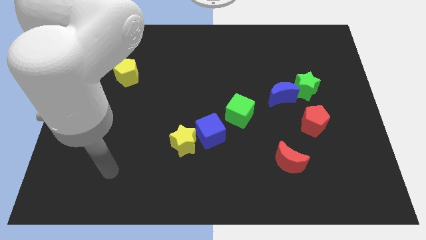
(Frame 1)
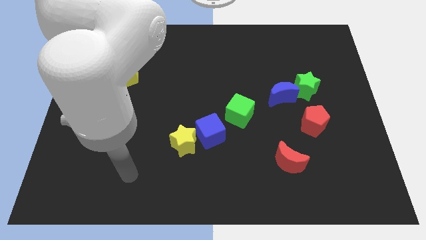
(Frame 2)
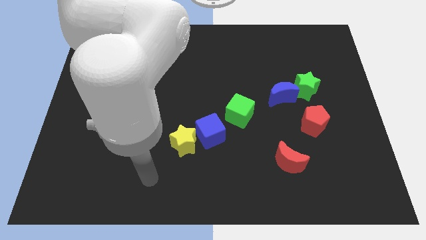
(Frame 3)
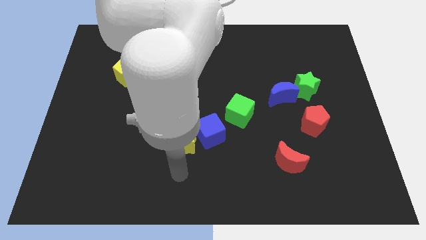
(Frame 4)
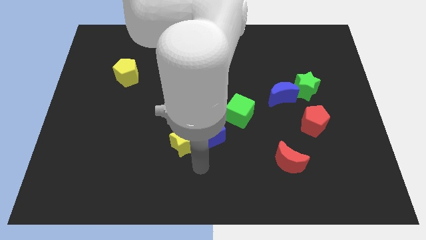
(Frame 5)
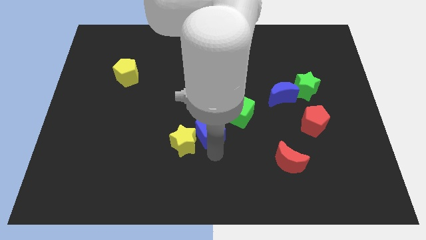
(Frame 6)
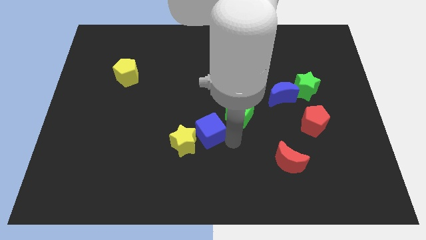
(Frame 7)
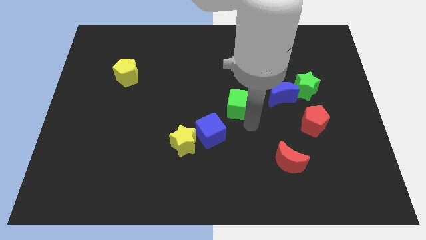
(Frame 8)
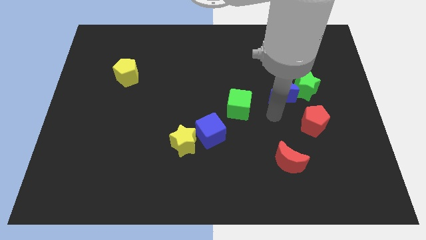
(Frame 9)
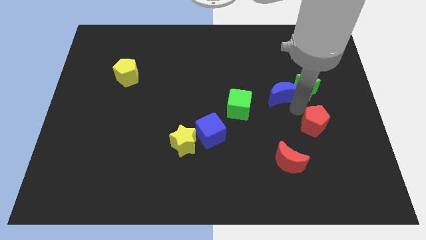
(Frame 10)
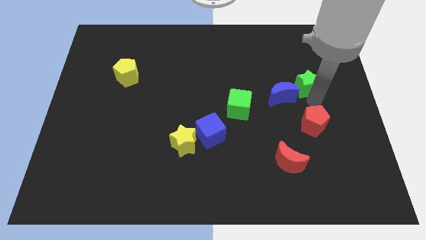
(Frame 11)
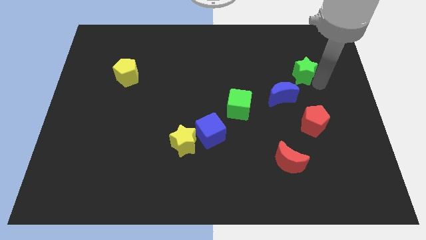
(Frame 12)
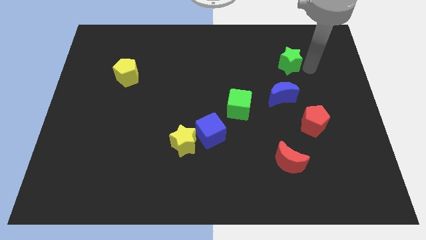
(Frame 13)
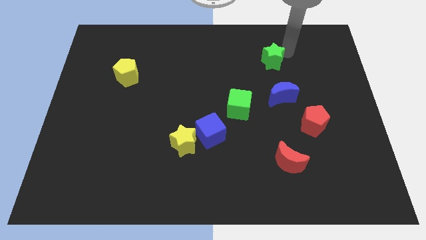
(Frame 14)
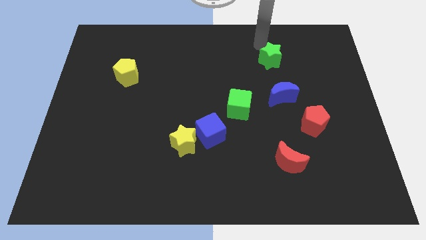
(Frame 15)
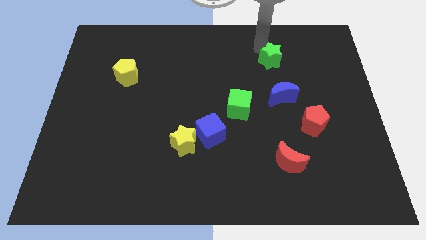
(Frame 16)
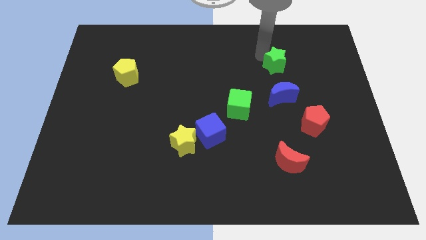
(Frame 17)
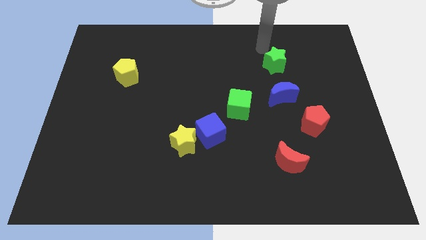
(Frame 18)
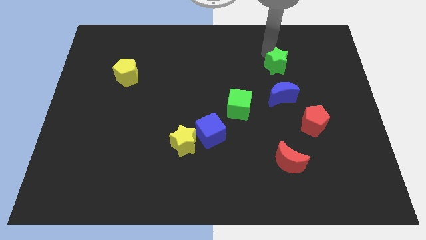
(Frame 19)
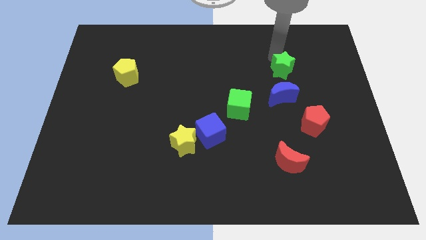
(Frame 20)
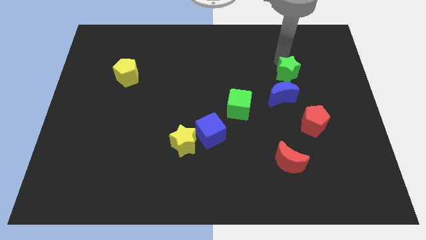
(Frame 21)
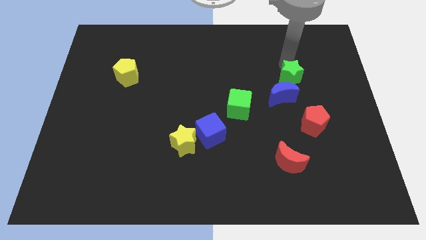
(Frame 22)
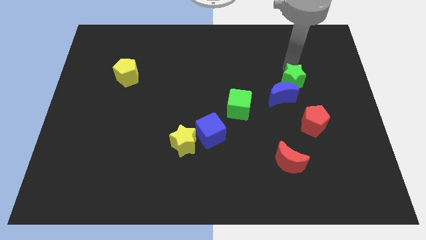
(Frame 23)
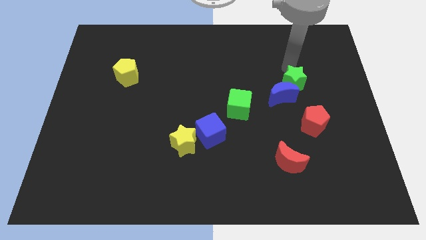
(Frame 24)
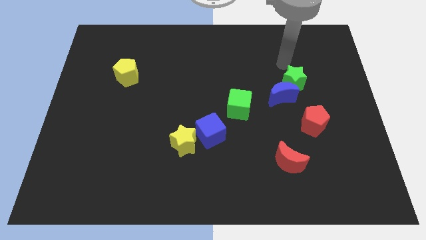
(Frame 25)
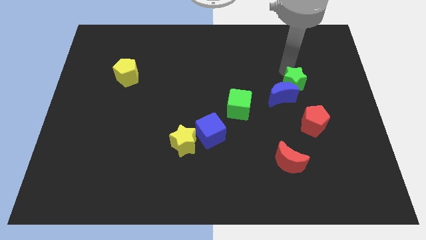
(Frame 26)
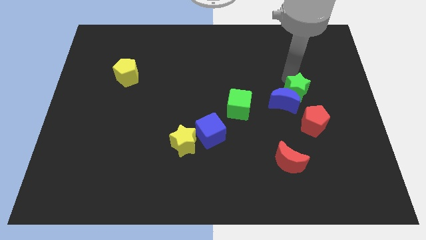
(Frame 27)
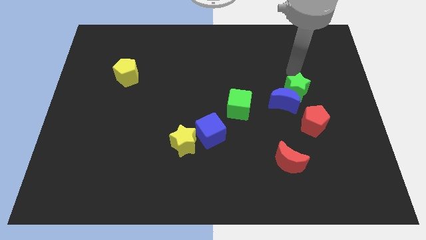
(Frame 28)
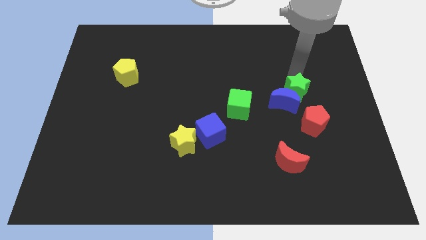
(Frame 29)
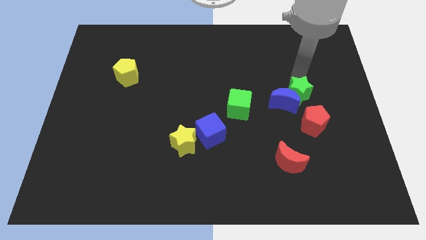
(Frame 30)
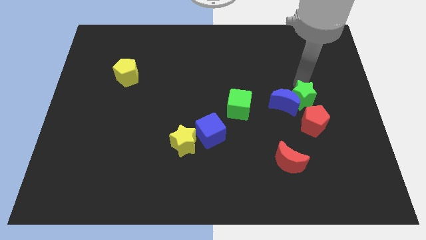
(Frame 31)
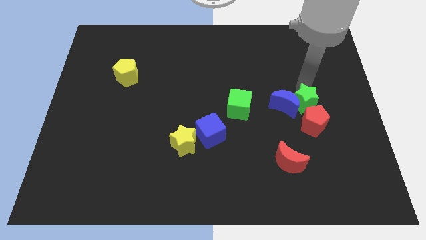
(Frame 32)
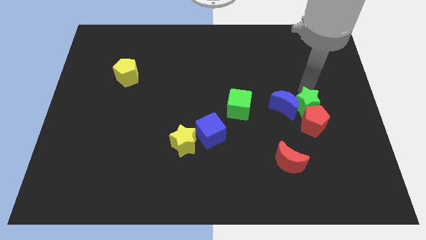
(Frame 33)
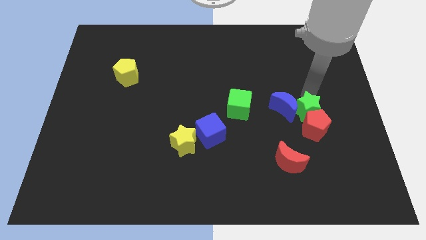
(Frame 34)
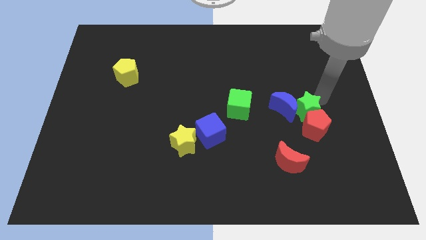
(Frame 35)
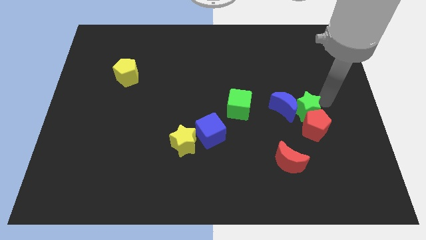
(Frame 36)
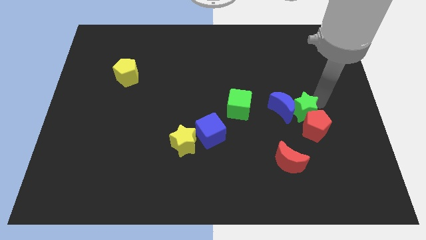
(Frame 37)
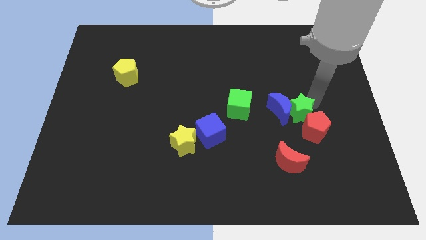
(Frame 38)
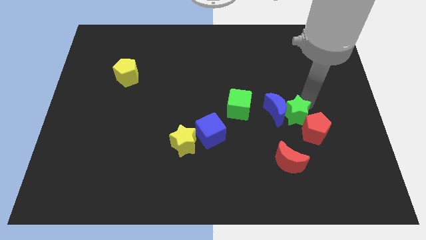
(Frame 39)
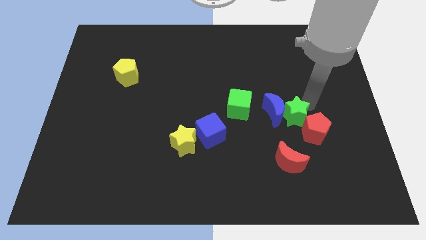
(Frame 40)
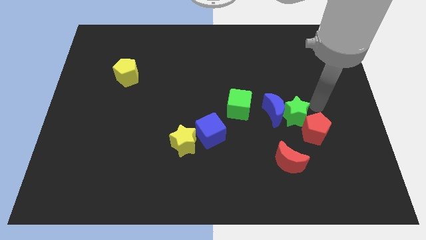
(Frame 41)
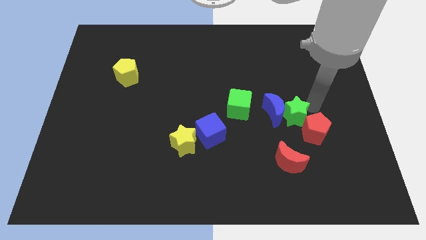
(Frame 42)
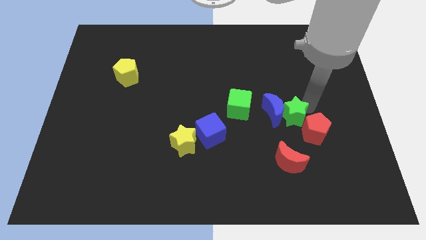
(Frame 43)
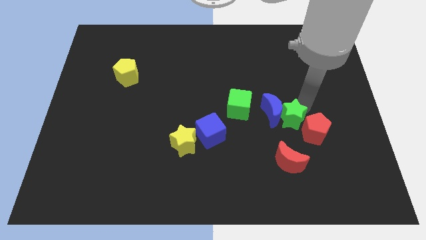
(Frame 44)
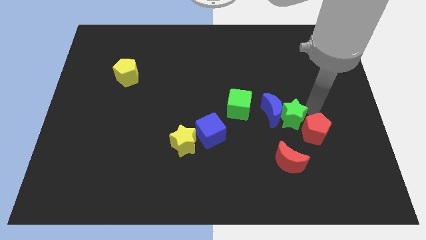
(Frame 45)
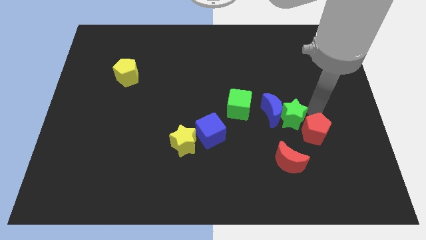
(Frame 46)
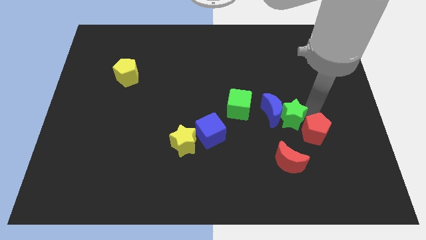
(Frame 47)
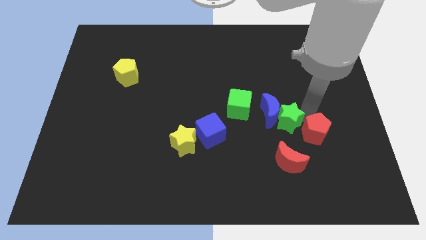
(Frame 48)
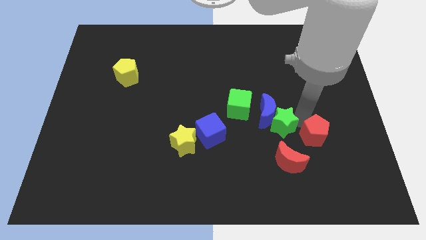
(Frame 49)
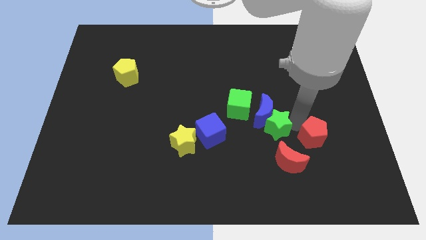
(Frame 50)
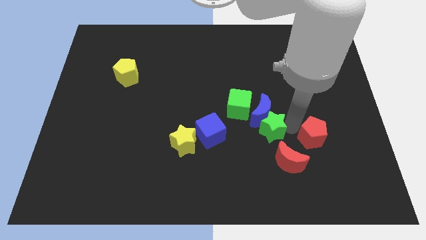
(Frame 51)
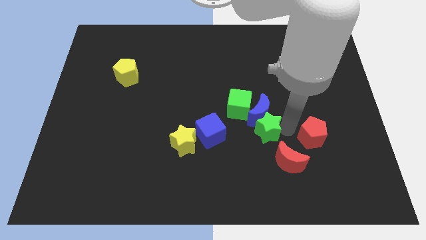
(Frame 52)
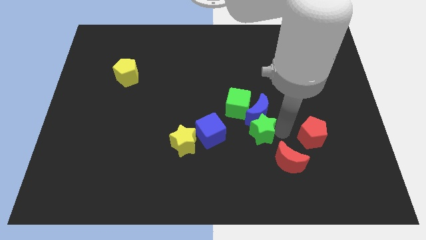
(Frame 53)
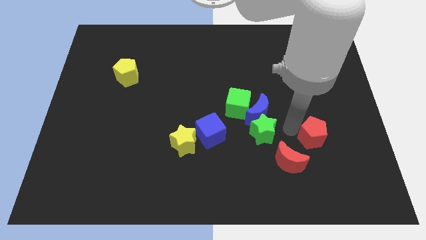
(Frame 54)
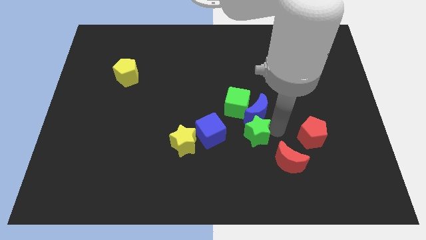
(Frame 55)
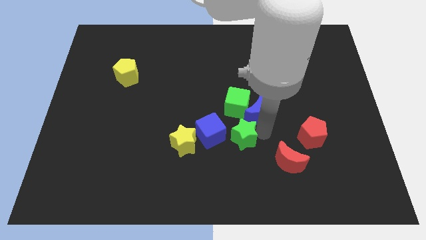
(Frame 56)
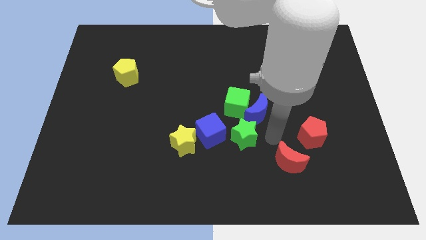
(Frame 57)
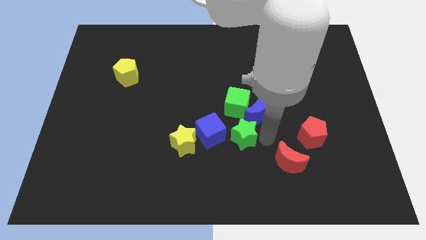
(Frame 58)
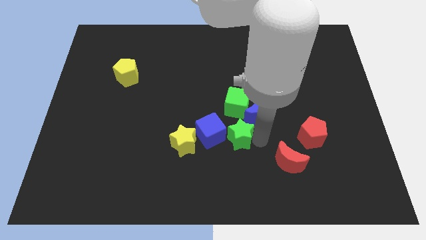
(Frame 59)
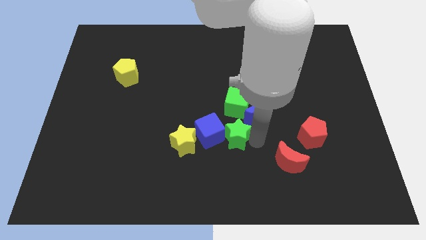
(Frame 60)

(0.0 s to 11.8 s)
put the green star close to the blue cube
